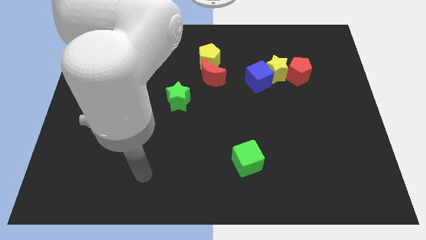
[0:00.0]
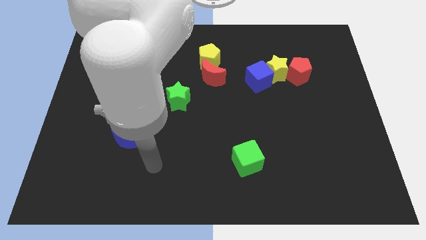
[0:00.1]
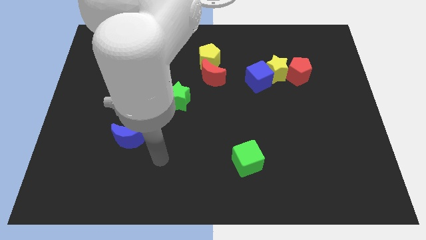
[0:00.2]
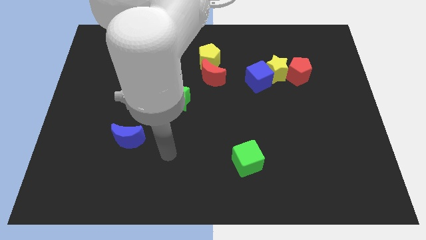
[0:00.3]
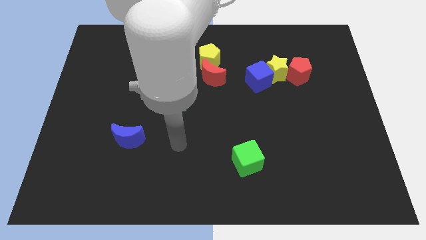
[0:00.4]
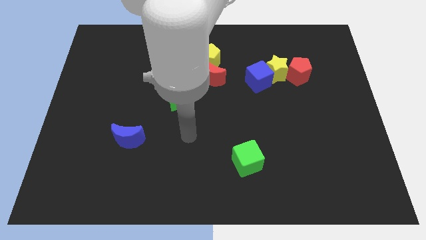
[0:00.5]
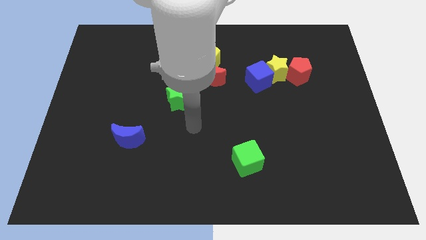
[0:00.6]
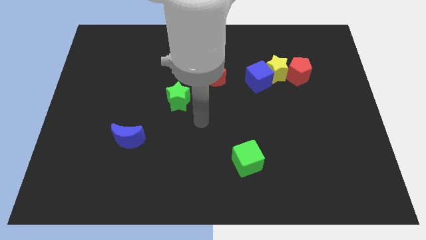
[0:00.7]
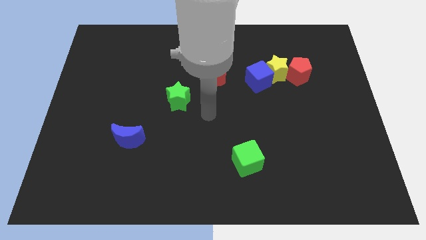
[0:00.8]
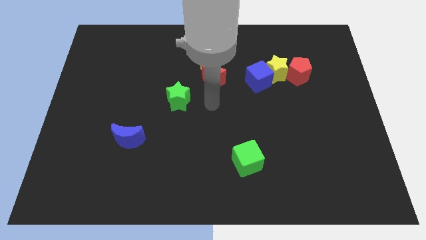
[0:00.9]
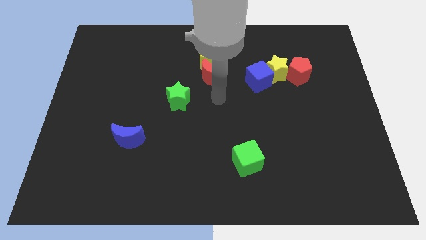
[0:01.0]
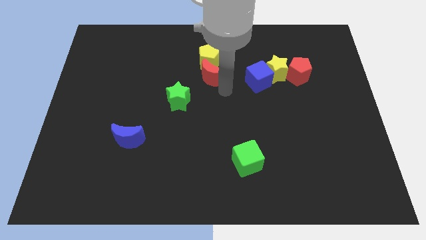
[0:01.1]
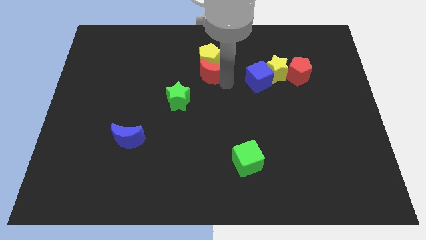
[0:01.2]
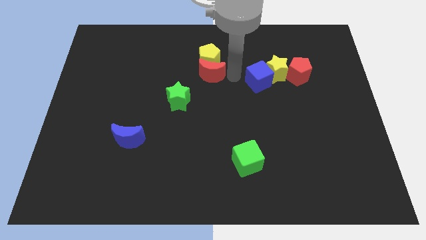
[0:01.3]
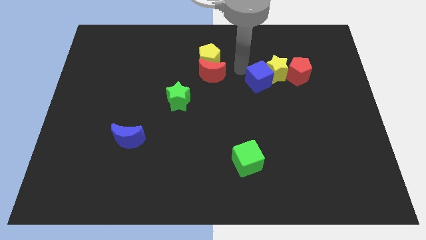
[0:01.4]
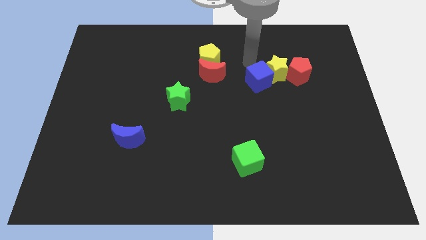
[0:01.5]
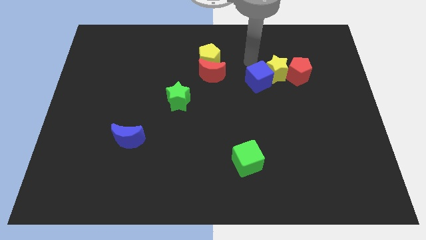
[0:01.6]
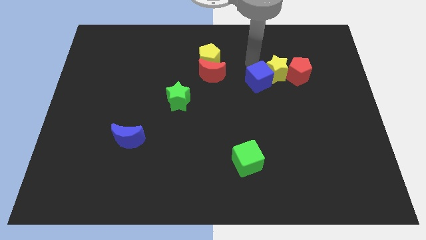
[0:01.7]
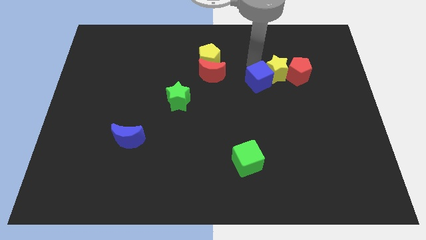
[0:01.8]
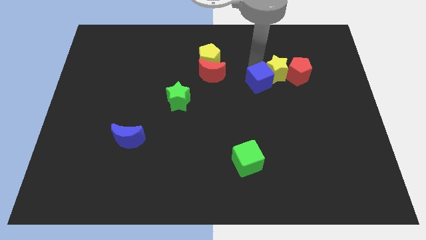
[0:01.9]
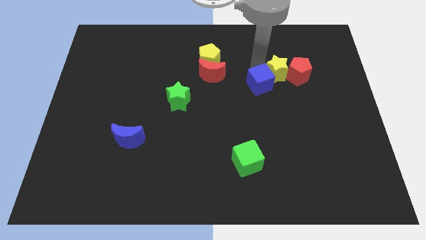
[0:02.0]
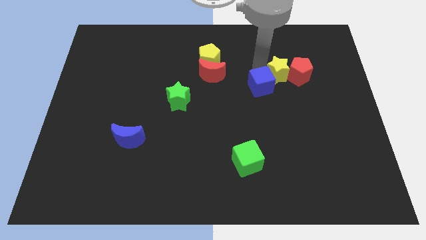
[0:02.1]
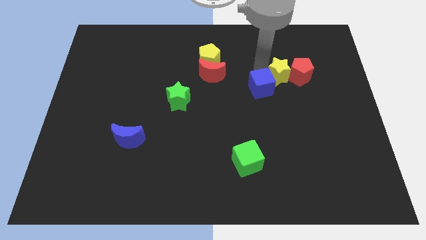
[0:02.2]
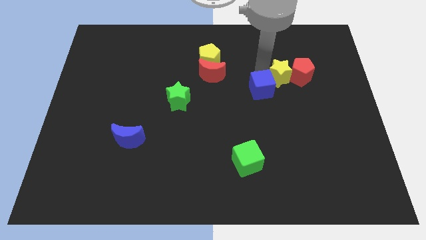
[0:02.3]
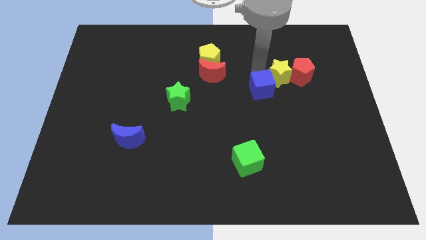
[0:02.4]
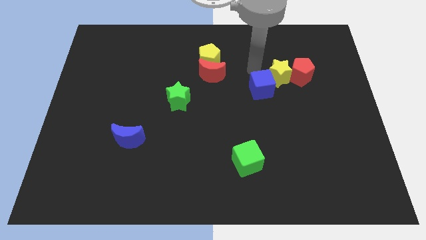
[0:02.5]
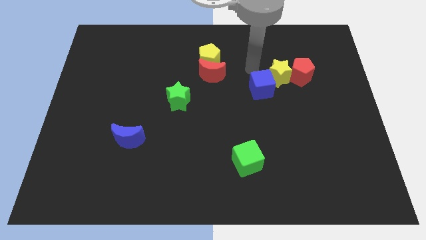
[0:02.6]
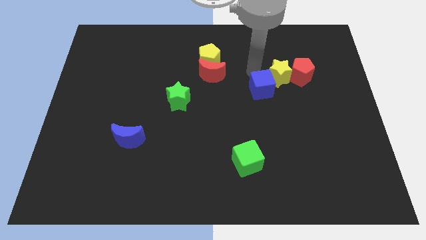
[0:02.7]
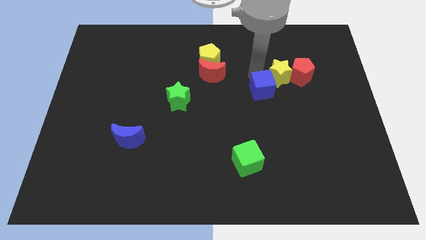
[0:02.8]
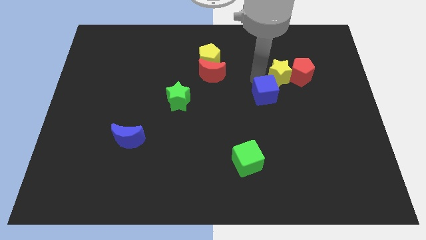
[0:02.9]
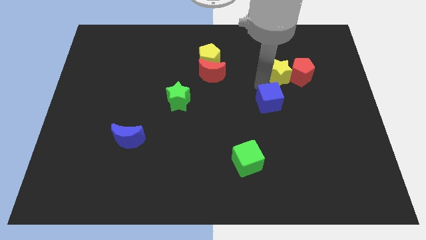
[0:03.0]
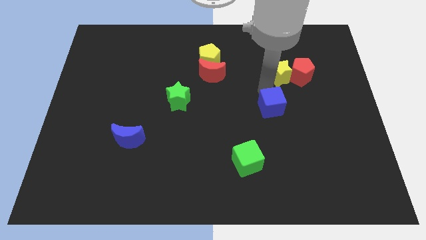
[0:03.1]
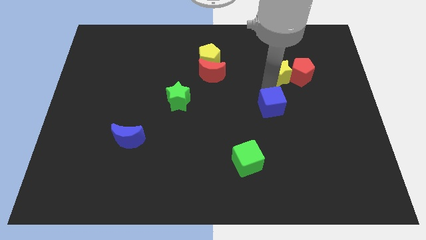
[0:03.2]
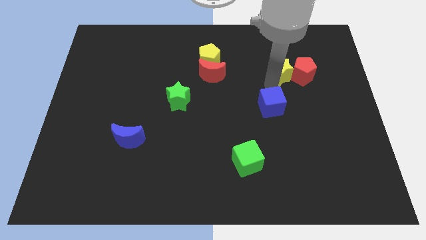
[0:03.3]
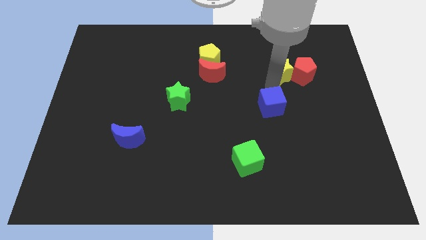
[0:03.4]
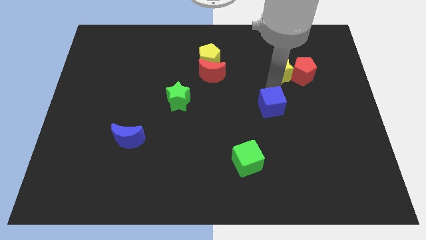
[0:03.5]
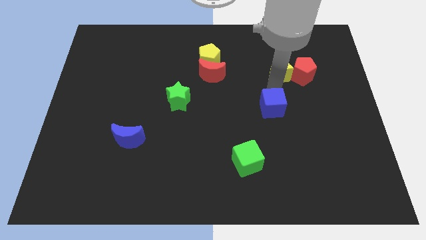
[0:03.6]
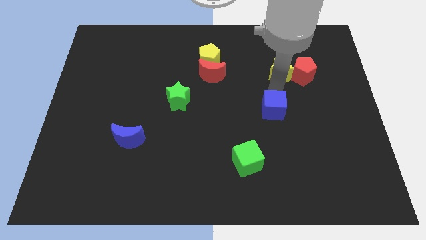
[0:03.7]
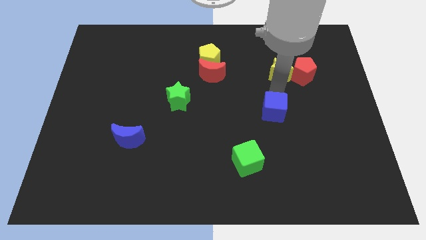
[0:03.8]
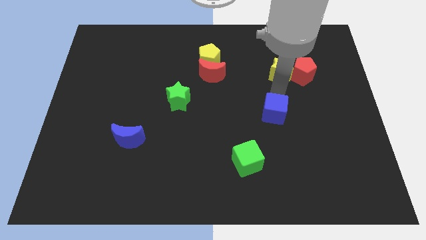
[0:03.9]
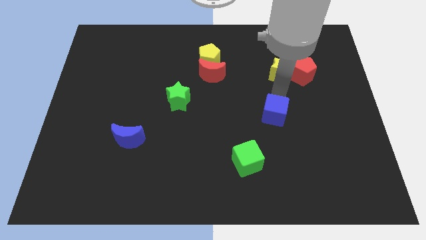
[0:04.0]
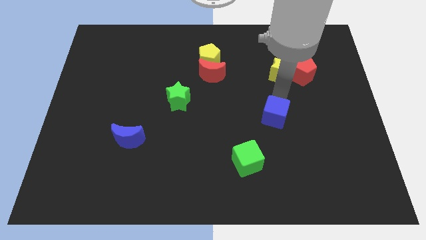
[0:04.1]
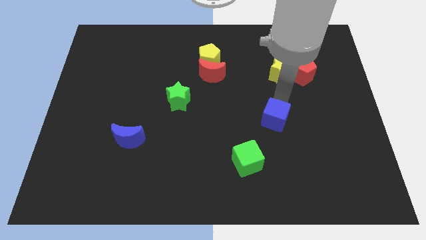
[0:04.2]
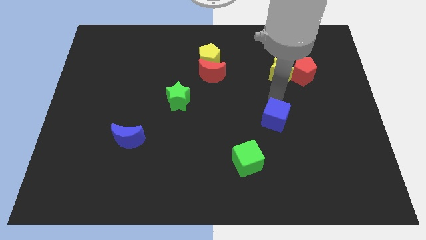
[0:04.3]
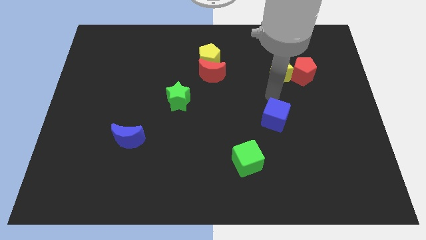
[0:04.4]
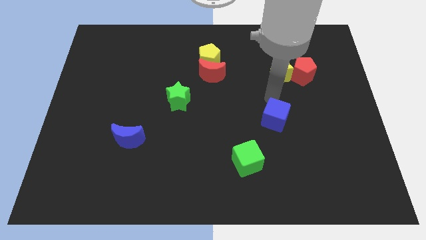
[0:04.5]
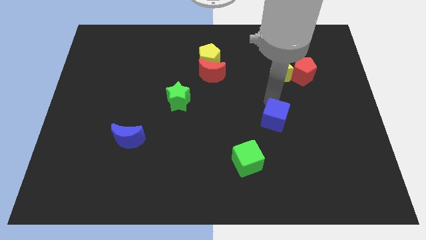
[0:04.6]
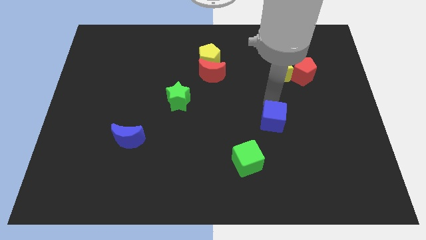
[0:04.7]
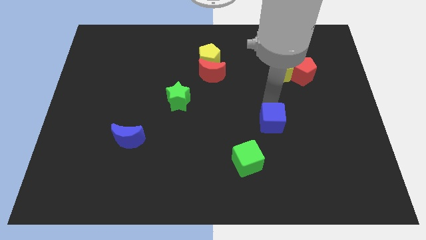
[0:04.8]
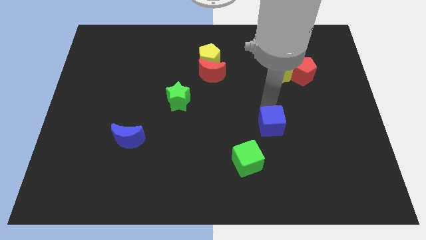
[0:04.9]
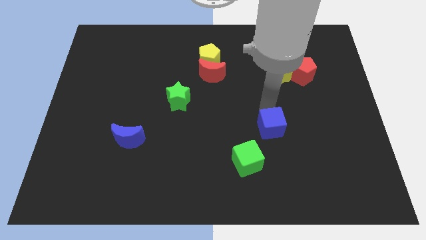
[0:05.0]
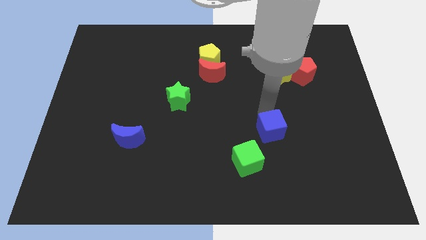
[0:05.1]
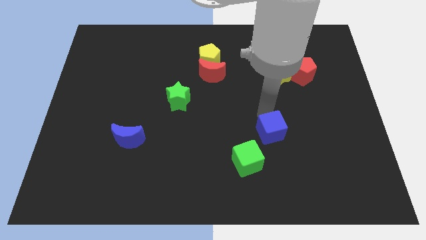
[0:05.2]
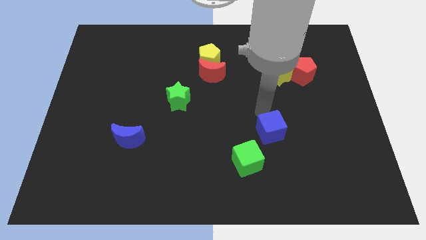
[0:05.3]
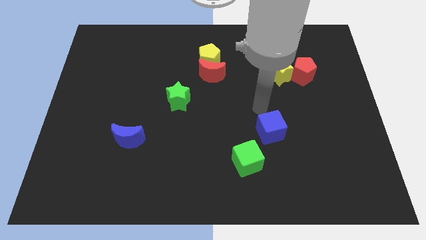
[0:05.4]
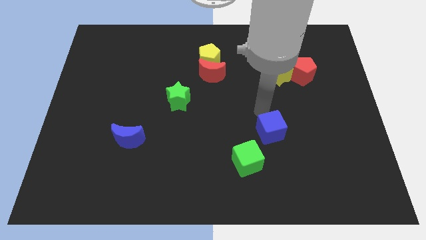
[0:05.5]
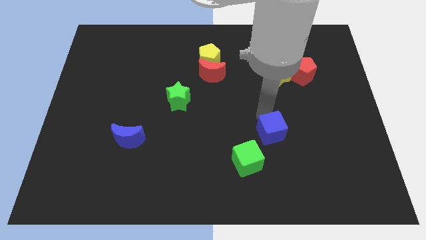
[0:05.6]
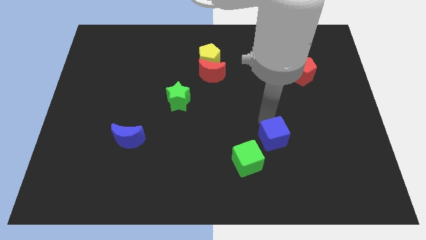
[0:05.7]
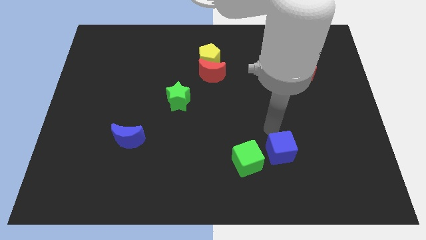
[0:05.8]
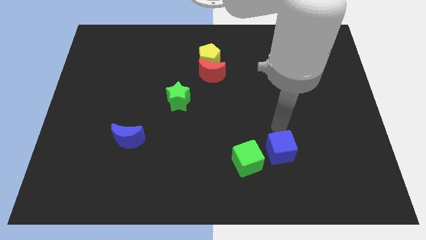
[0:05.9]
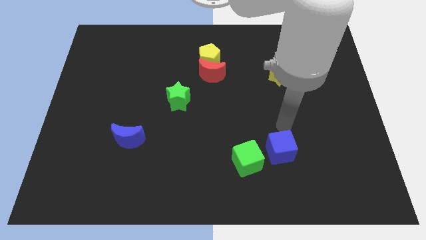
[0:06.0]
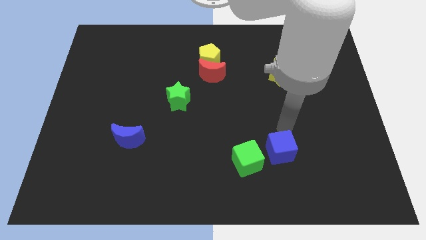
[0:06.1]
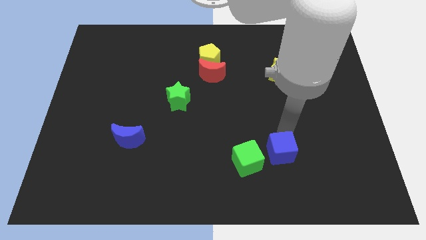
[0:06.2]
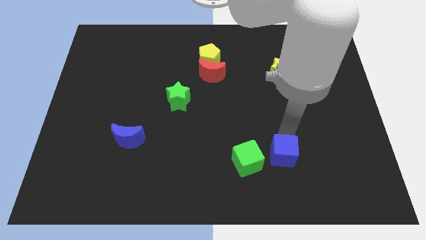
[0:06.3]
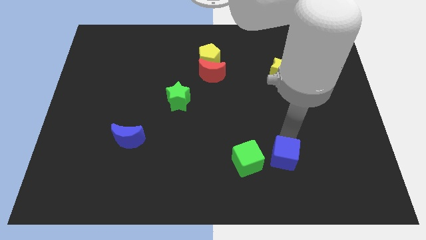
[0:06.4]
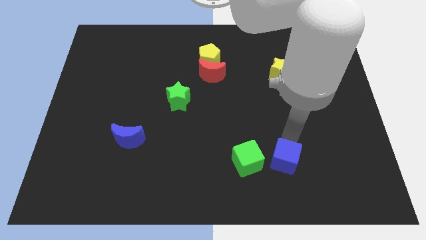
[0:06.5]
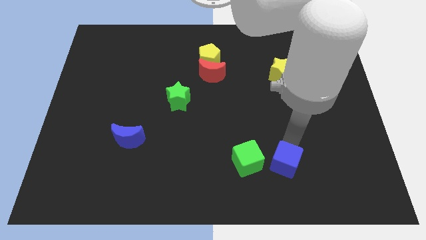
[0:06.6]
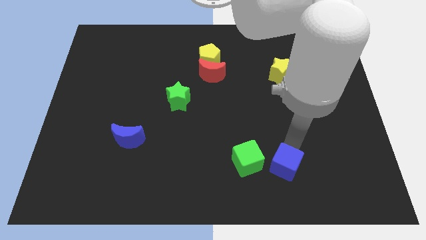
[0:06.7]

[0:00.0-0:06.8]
put the blue cube diagonally down and to the right of the green cube
